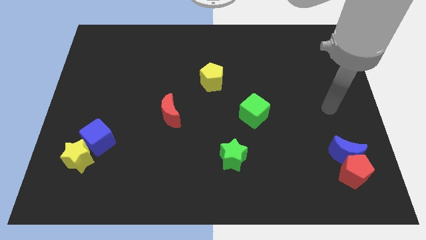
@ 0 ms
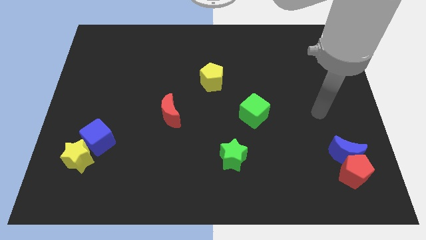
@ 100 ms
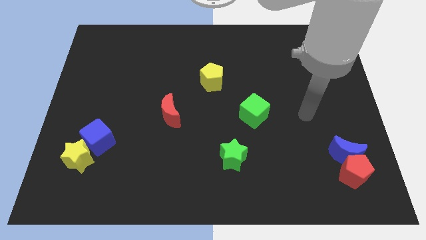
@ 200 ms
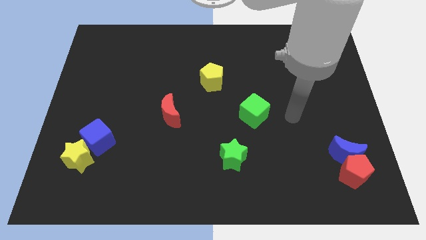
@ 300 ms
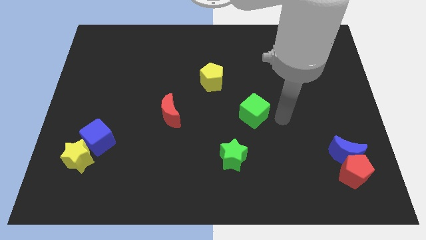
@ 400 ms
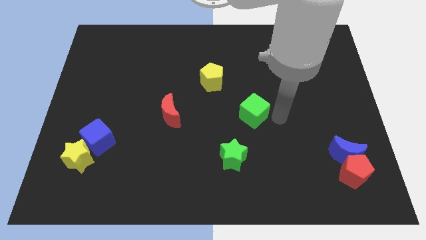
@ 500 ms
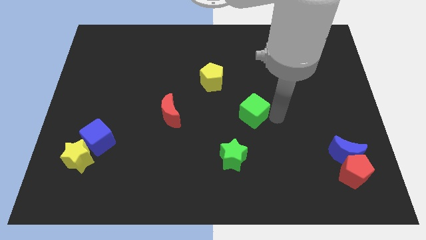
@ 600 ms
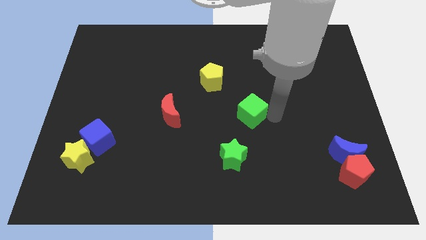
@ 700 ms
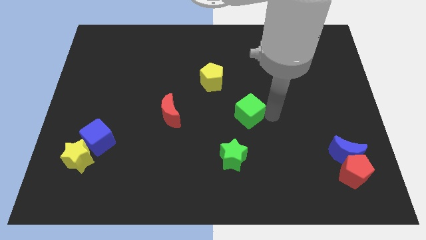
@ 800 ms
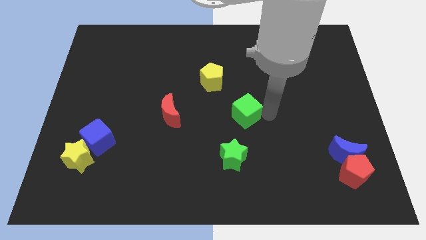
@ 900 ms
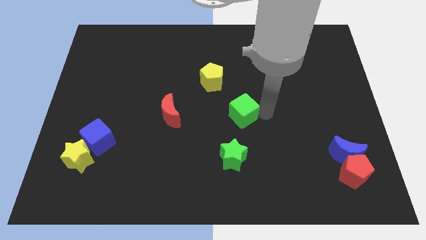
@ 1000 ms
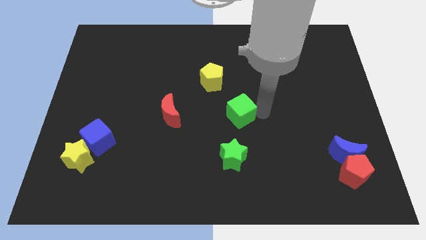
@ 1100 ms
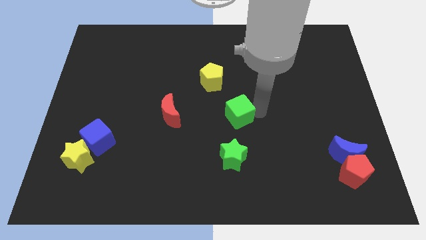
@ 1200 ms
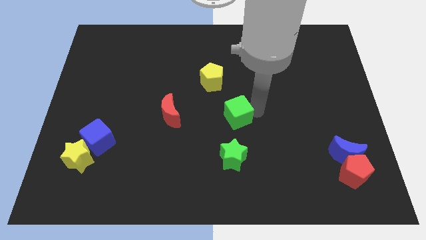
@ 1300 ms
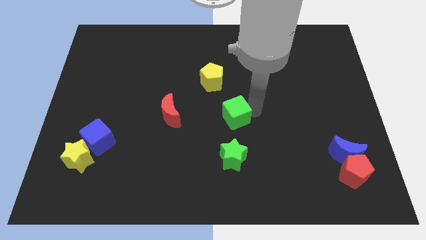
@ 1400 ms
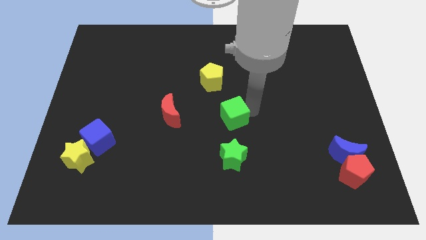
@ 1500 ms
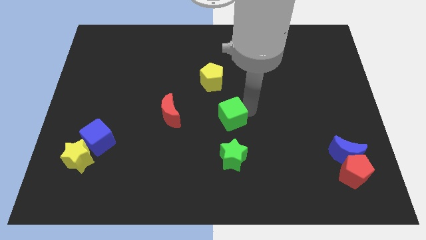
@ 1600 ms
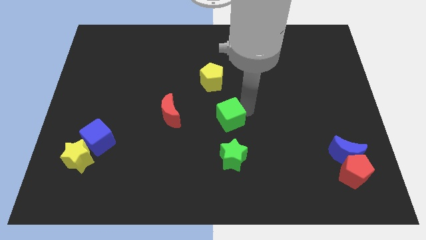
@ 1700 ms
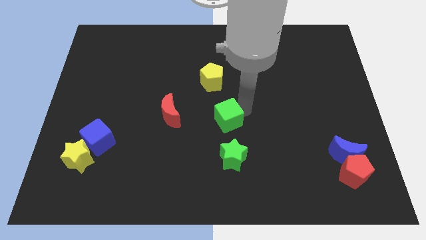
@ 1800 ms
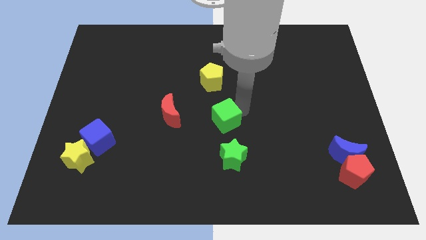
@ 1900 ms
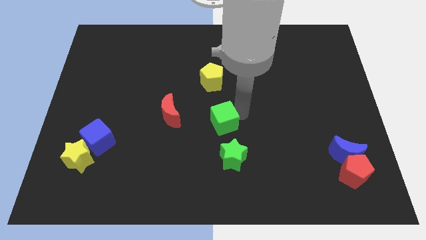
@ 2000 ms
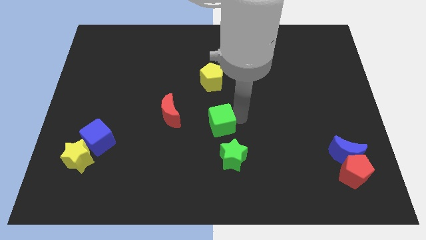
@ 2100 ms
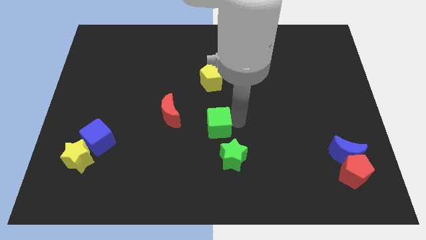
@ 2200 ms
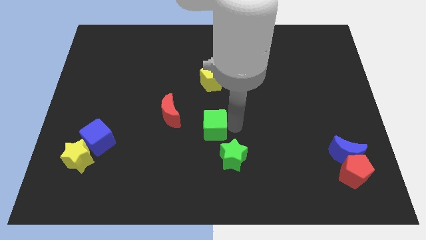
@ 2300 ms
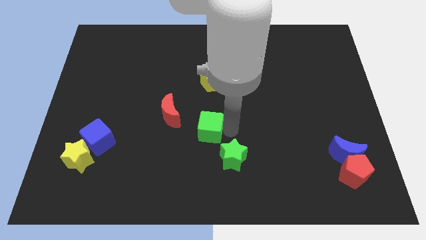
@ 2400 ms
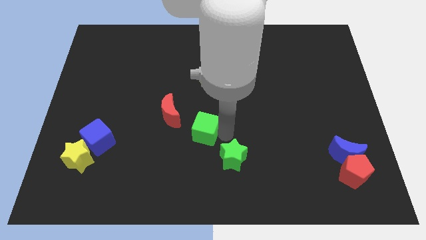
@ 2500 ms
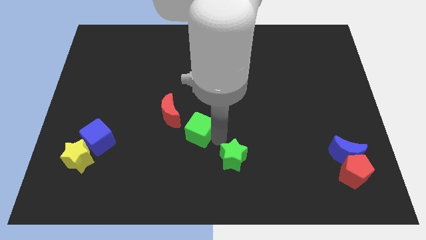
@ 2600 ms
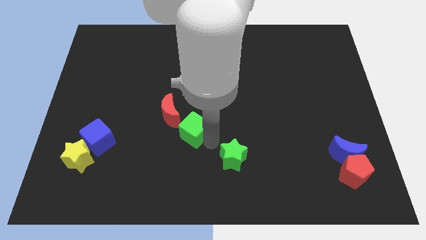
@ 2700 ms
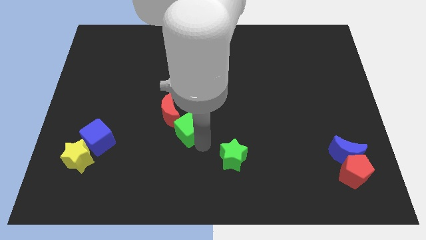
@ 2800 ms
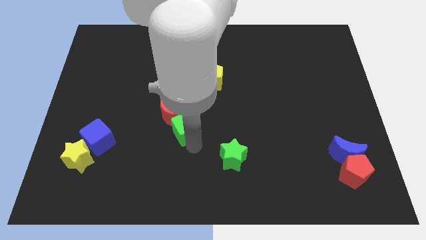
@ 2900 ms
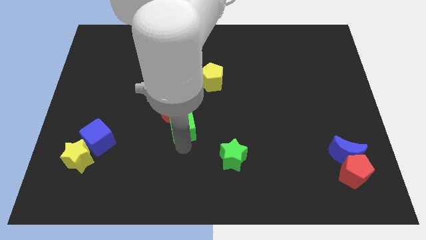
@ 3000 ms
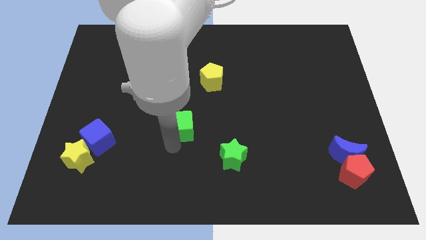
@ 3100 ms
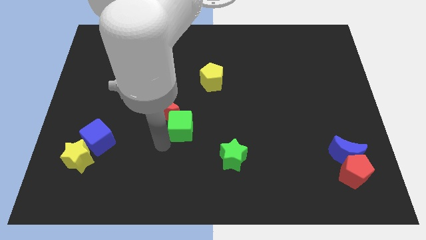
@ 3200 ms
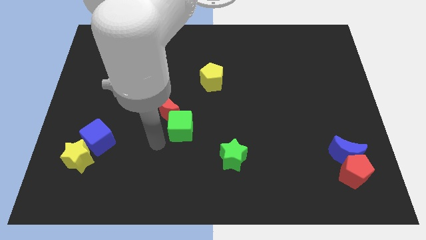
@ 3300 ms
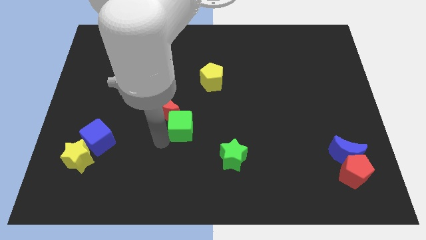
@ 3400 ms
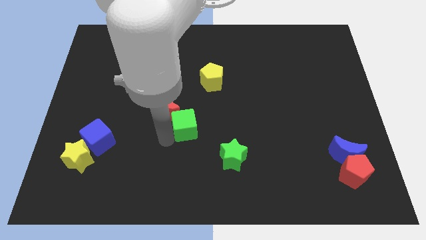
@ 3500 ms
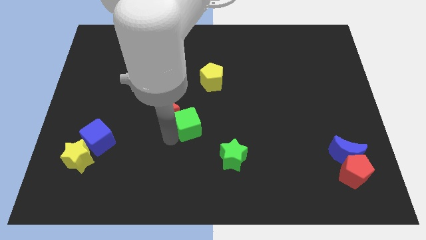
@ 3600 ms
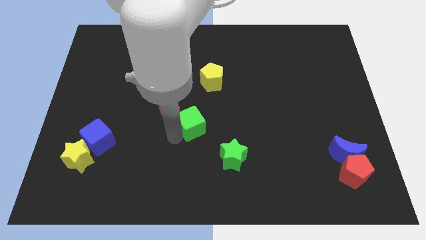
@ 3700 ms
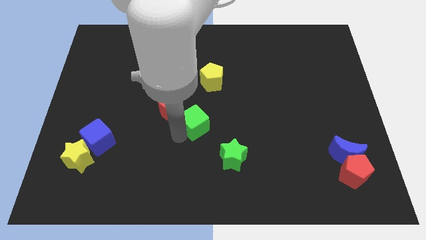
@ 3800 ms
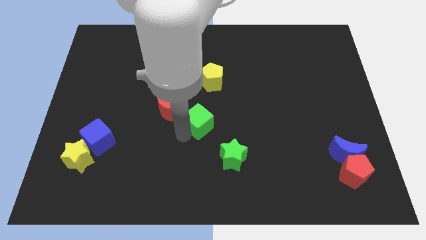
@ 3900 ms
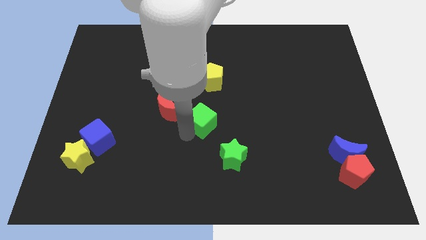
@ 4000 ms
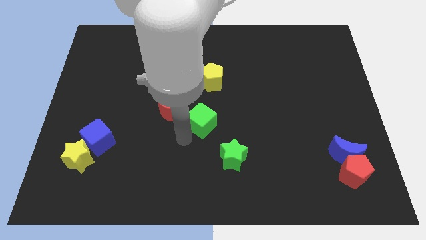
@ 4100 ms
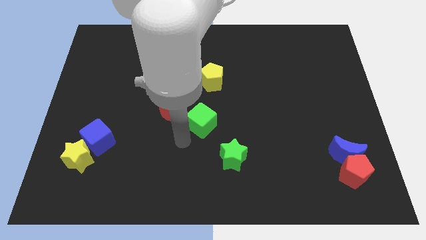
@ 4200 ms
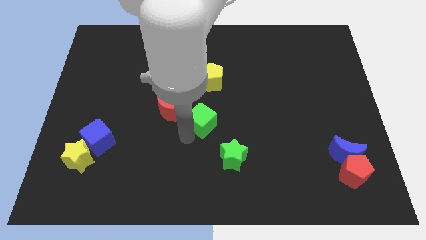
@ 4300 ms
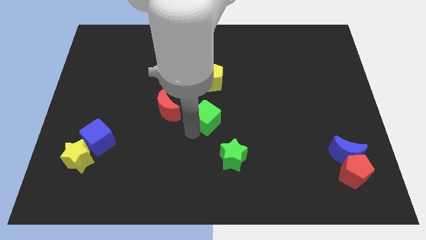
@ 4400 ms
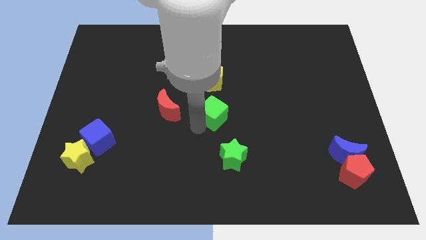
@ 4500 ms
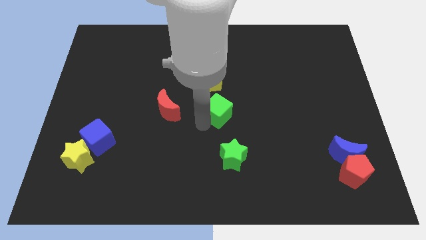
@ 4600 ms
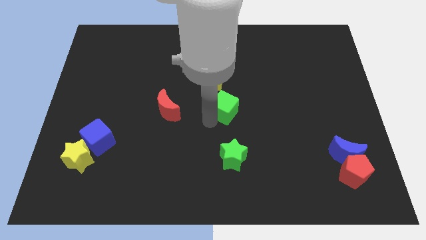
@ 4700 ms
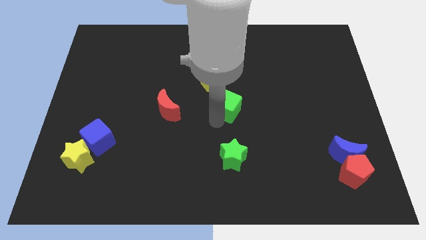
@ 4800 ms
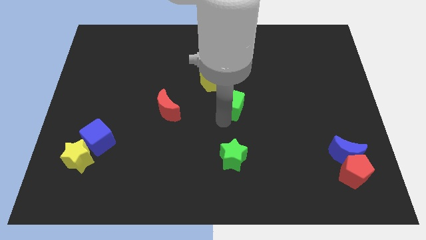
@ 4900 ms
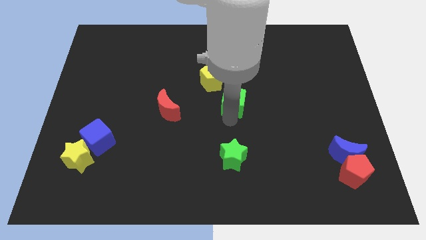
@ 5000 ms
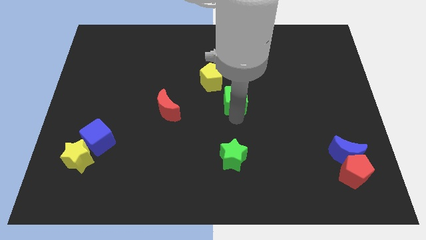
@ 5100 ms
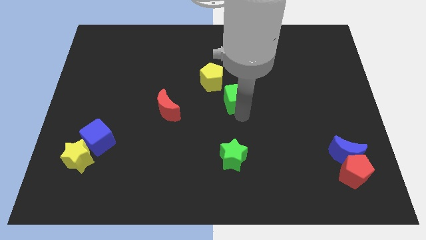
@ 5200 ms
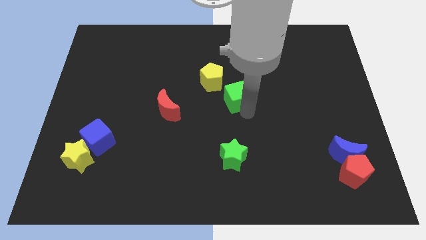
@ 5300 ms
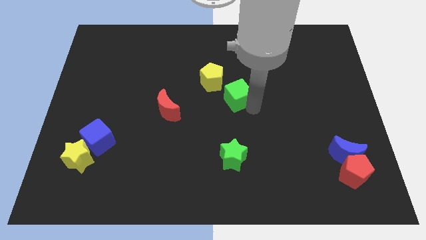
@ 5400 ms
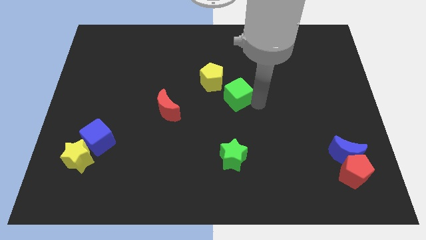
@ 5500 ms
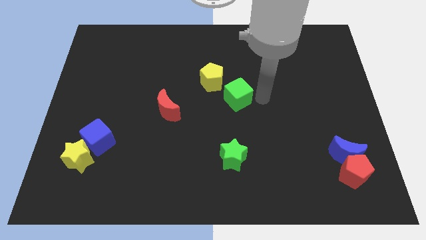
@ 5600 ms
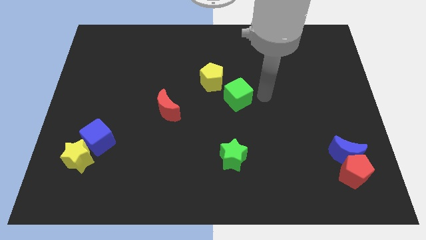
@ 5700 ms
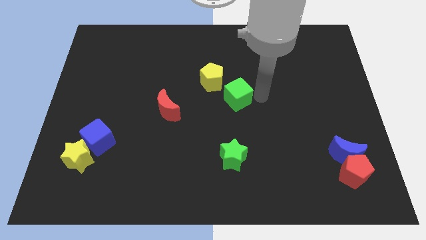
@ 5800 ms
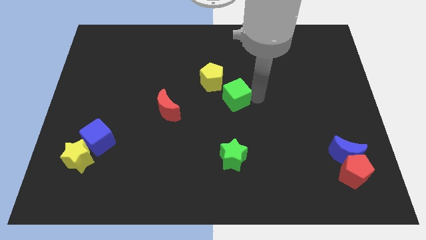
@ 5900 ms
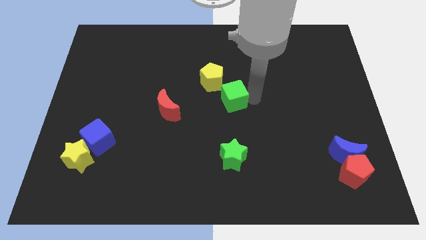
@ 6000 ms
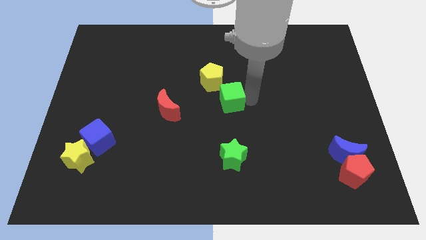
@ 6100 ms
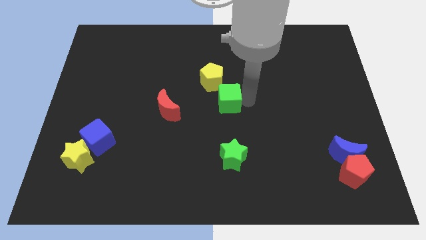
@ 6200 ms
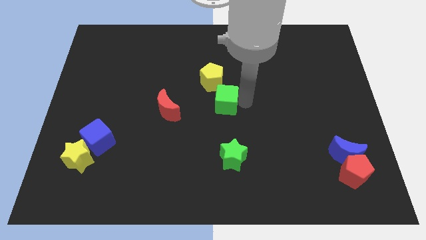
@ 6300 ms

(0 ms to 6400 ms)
move the green cube a little bit up and to the left

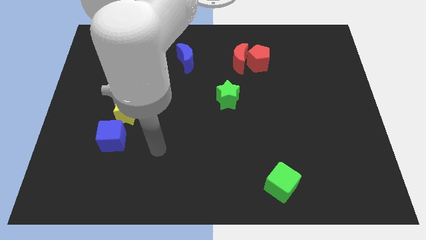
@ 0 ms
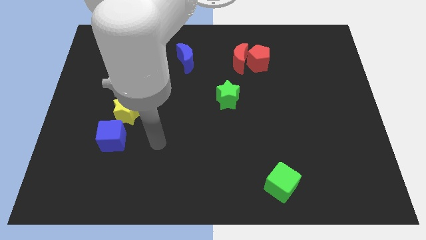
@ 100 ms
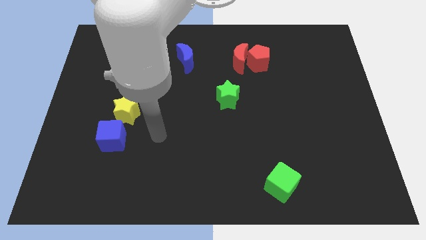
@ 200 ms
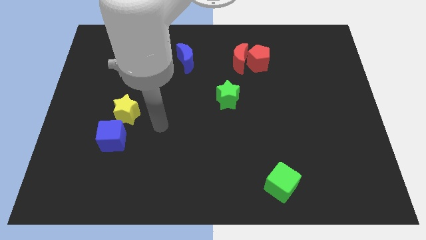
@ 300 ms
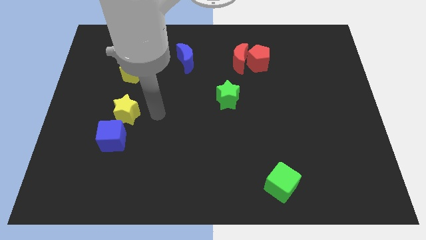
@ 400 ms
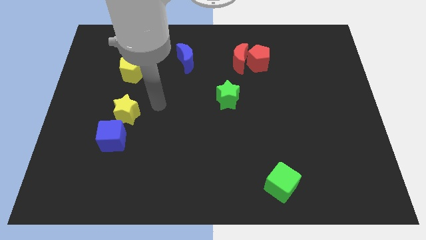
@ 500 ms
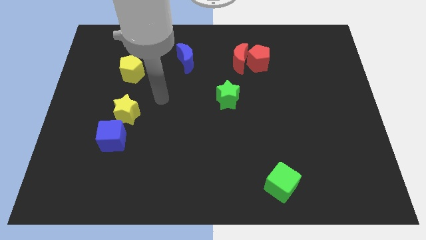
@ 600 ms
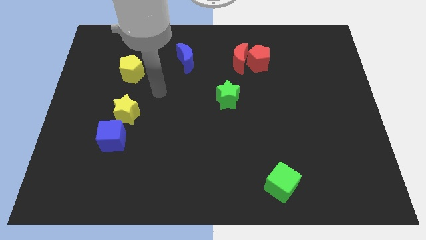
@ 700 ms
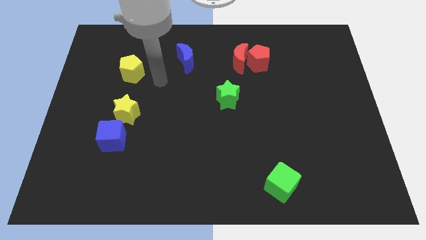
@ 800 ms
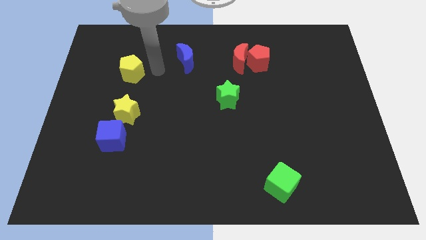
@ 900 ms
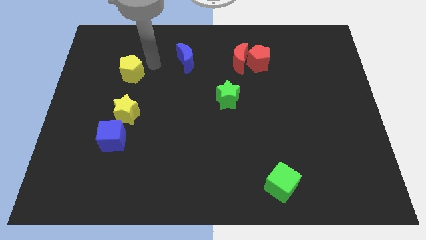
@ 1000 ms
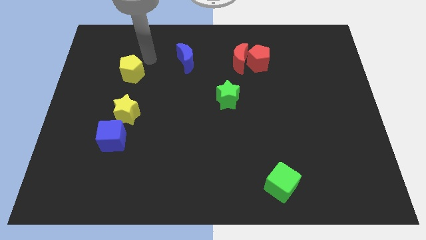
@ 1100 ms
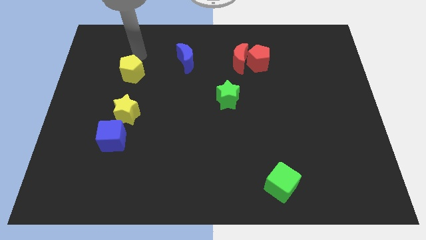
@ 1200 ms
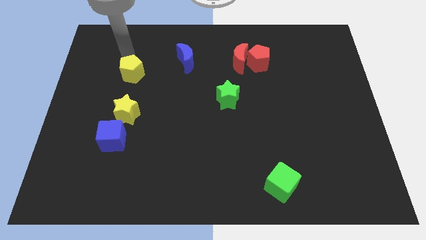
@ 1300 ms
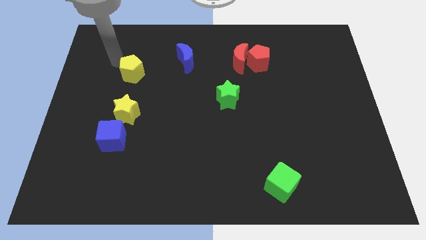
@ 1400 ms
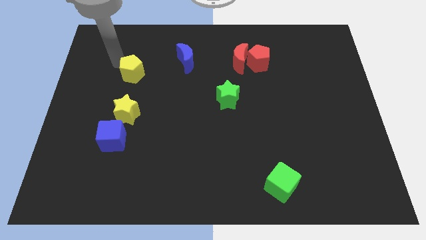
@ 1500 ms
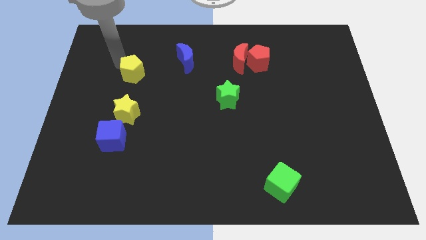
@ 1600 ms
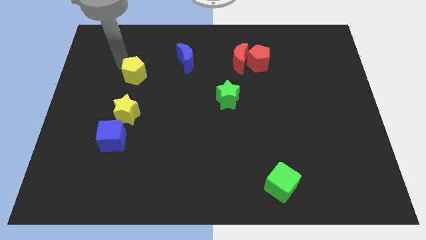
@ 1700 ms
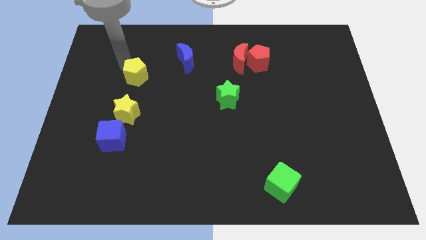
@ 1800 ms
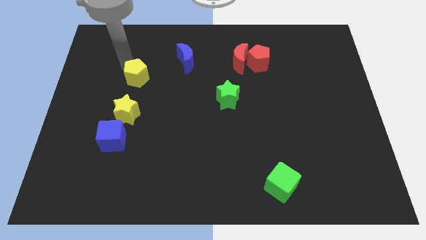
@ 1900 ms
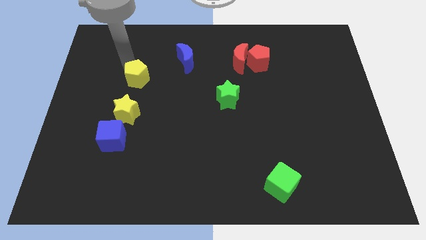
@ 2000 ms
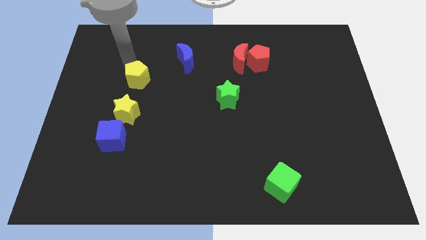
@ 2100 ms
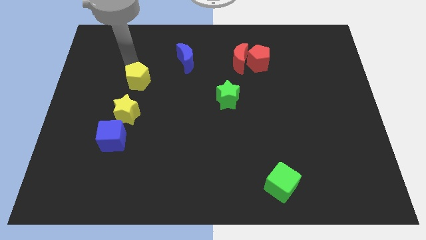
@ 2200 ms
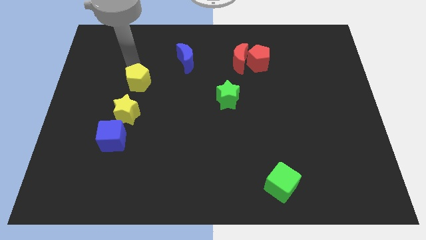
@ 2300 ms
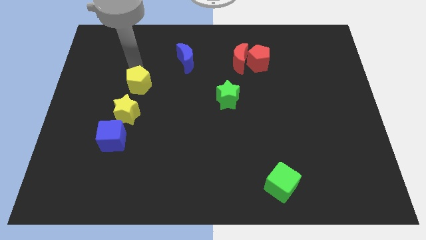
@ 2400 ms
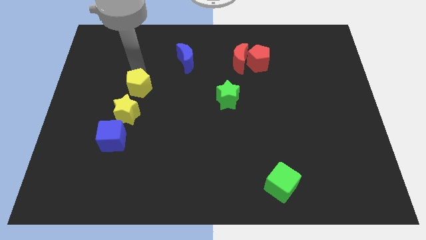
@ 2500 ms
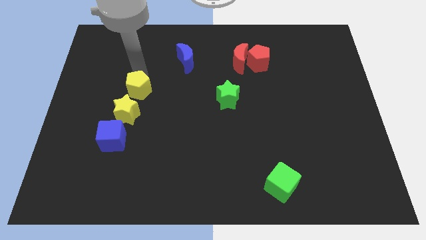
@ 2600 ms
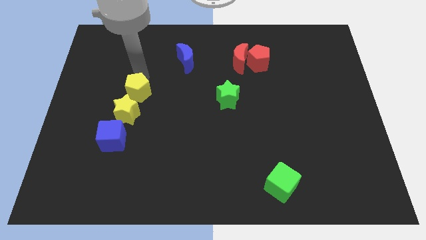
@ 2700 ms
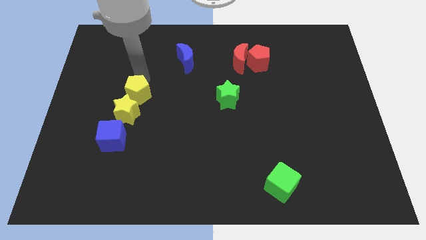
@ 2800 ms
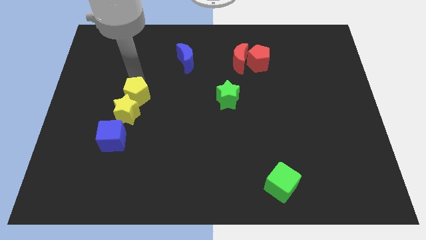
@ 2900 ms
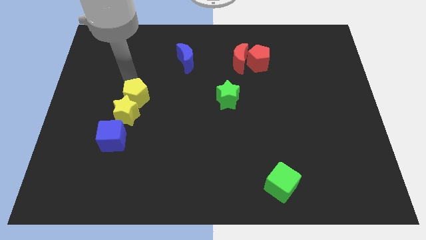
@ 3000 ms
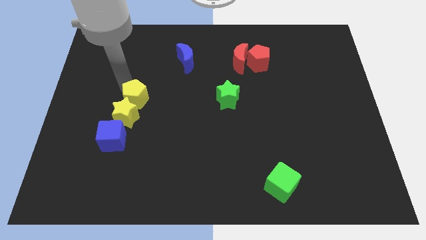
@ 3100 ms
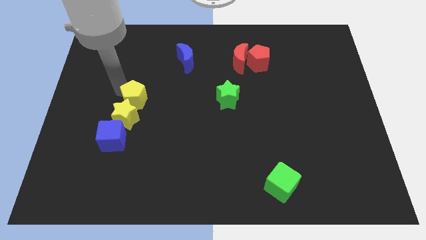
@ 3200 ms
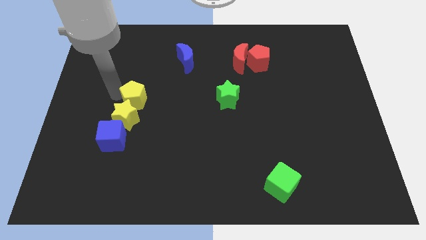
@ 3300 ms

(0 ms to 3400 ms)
slide the yellow pentagon a bit down and right diagonally
